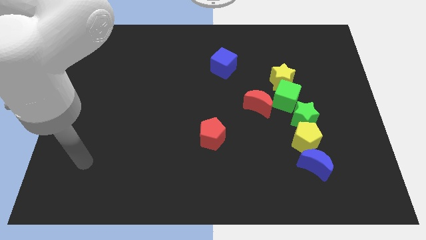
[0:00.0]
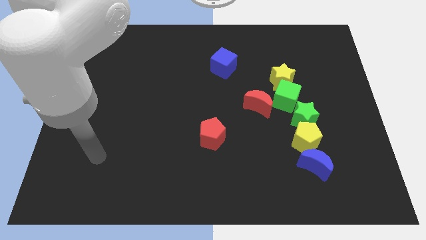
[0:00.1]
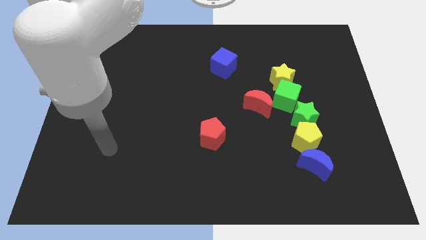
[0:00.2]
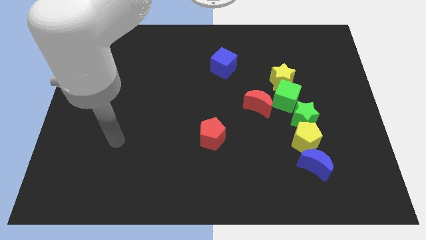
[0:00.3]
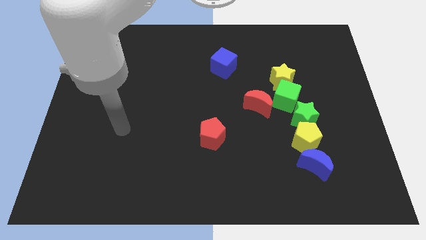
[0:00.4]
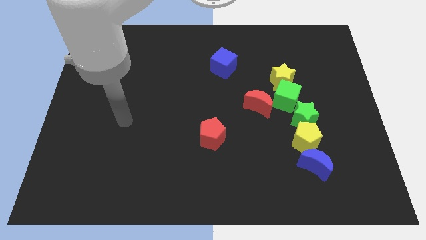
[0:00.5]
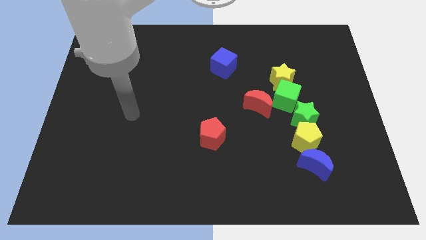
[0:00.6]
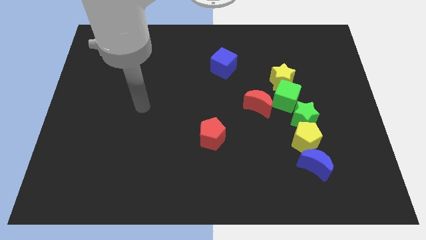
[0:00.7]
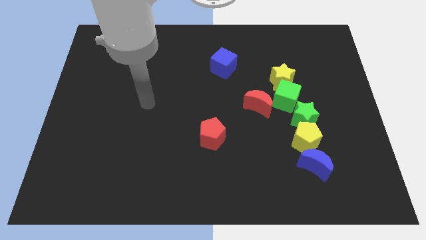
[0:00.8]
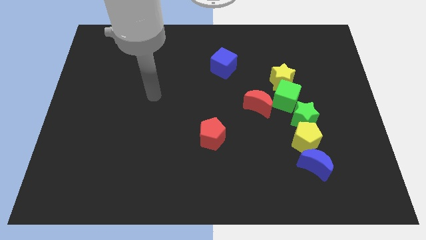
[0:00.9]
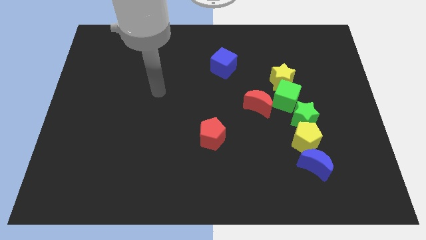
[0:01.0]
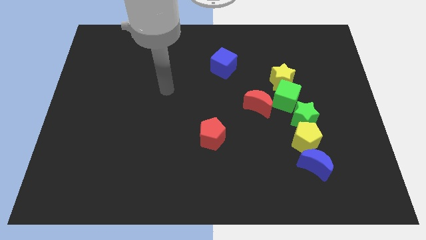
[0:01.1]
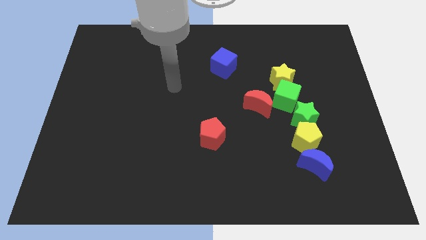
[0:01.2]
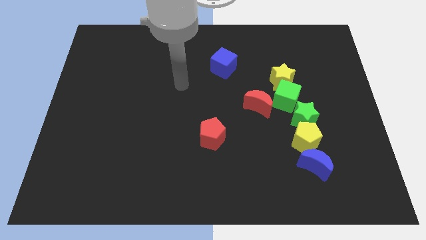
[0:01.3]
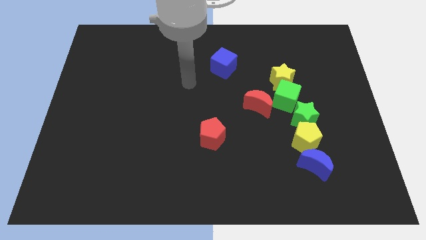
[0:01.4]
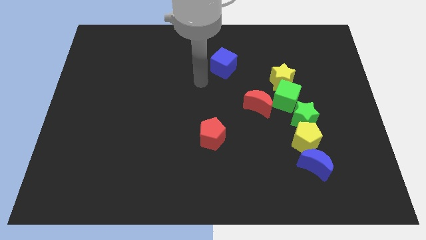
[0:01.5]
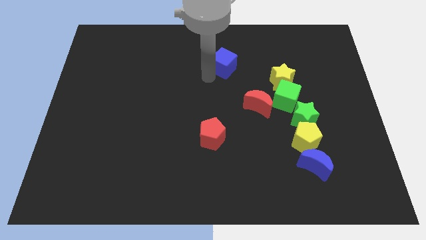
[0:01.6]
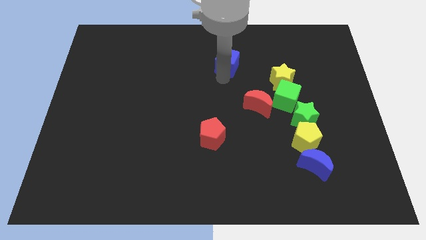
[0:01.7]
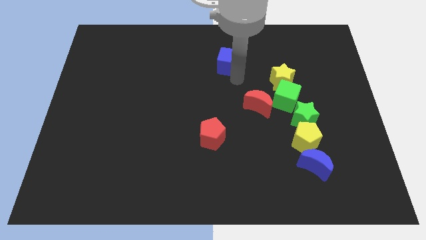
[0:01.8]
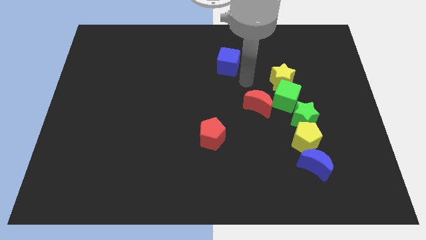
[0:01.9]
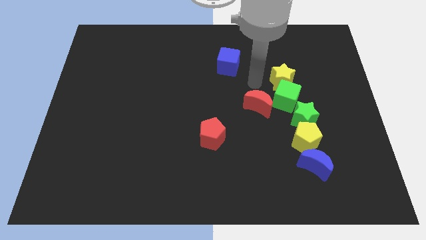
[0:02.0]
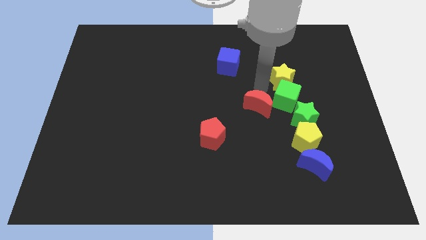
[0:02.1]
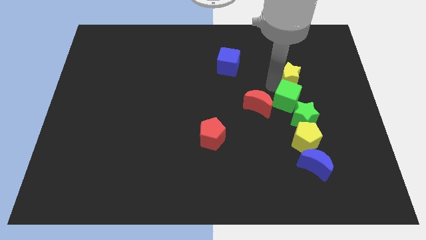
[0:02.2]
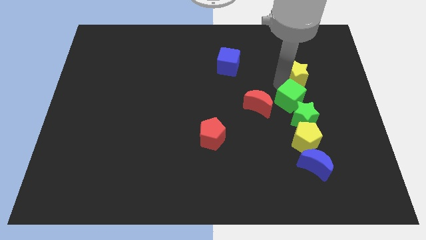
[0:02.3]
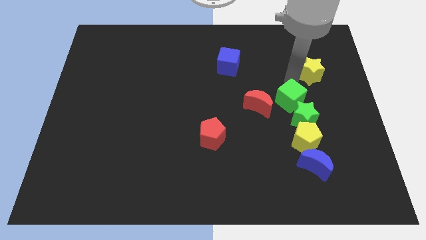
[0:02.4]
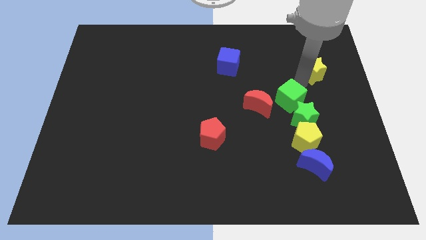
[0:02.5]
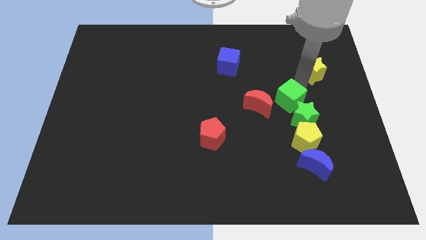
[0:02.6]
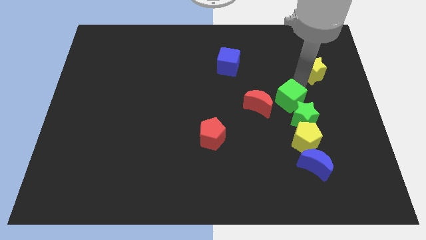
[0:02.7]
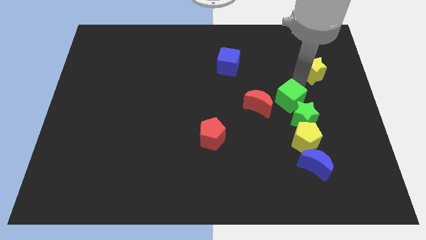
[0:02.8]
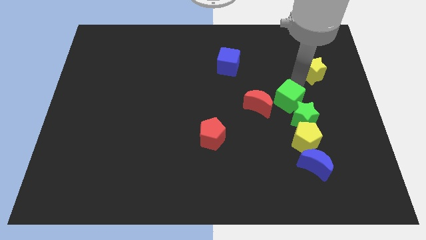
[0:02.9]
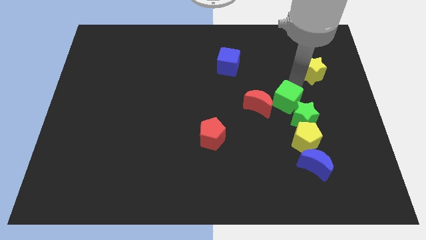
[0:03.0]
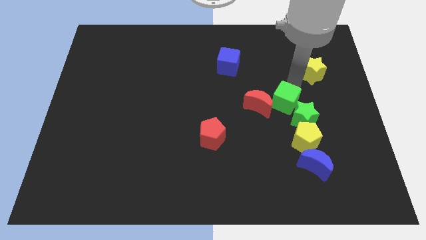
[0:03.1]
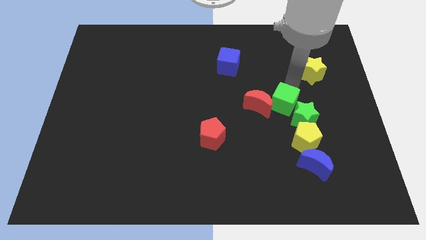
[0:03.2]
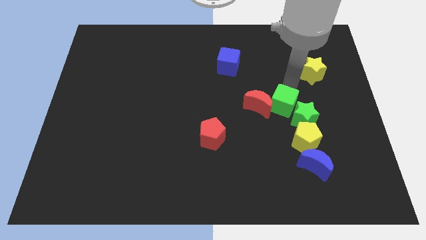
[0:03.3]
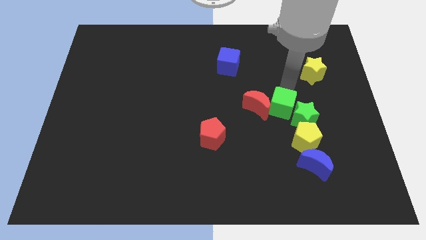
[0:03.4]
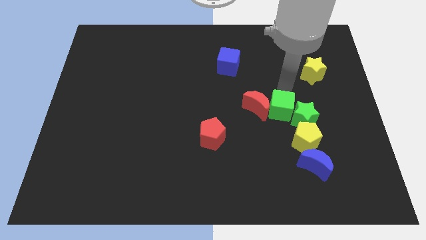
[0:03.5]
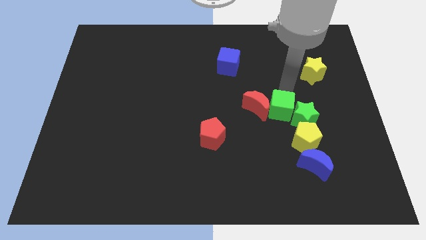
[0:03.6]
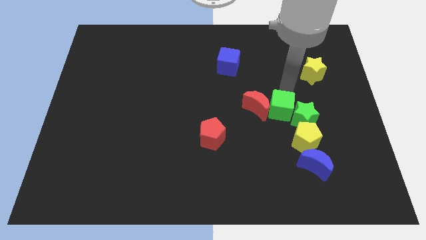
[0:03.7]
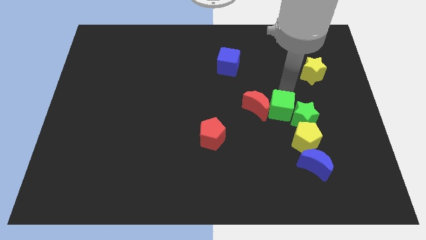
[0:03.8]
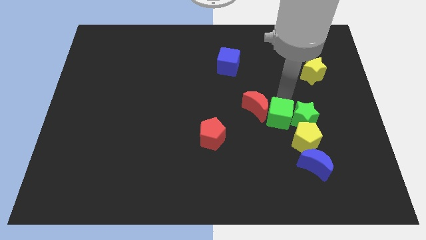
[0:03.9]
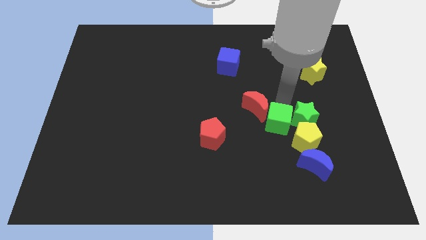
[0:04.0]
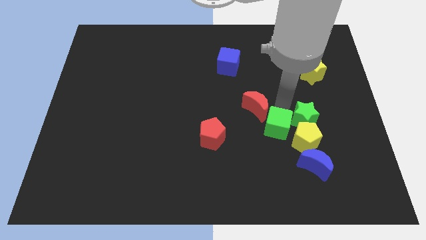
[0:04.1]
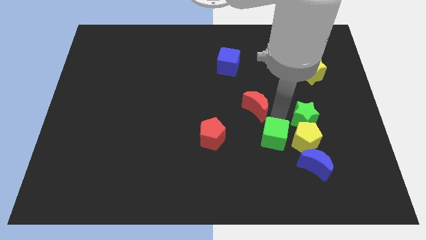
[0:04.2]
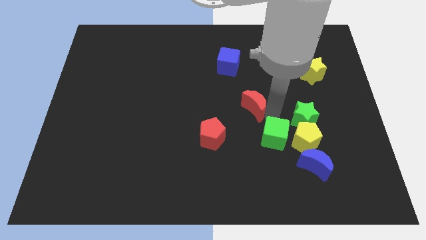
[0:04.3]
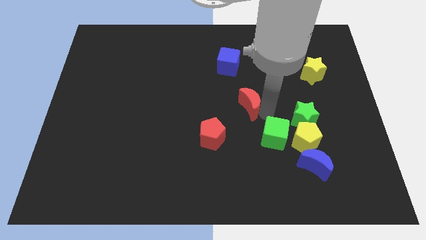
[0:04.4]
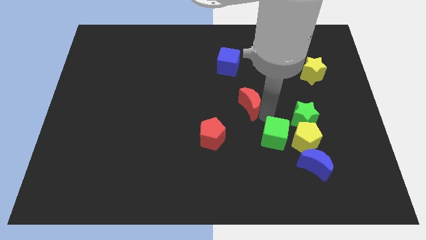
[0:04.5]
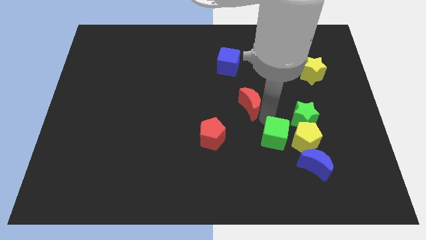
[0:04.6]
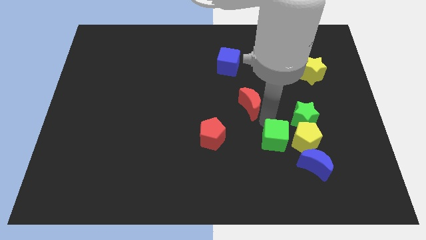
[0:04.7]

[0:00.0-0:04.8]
put the green cube to the bottom left of the yellow pentagon

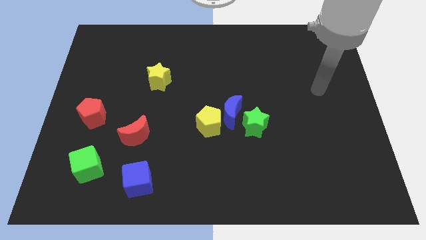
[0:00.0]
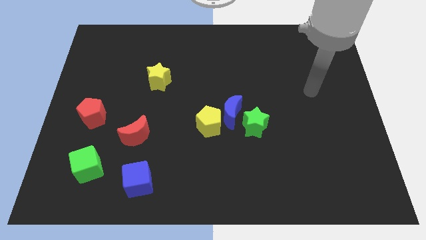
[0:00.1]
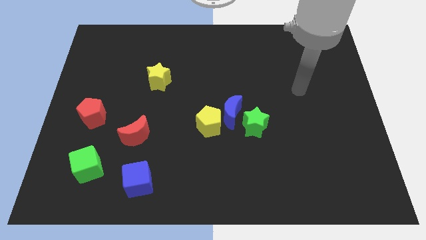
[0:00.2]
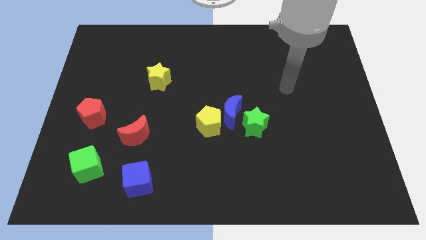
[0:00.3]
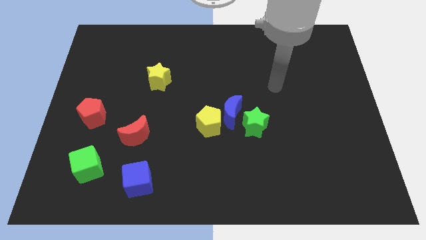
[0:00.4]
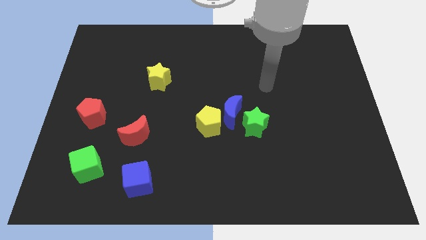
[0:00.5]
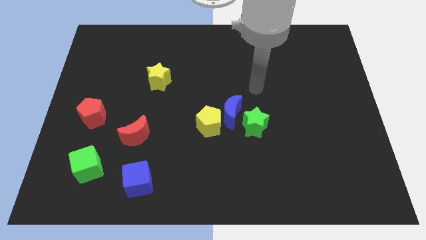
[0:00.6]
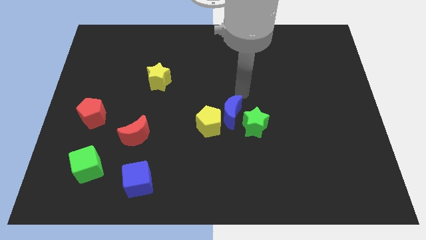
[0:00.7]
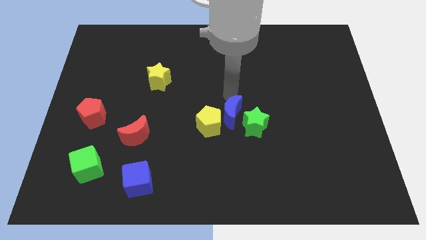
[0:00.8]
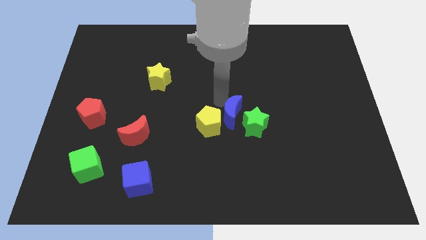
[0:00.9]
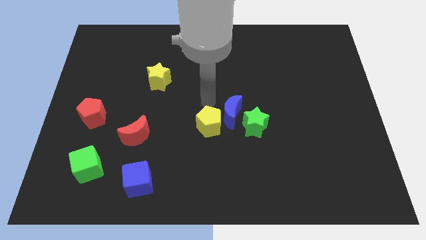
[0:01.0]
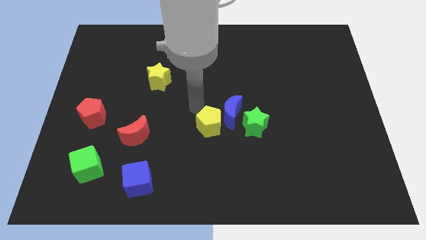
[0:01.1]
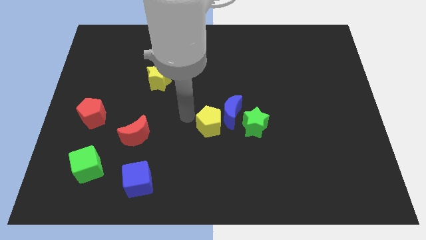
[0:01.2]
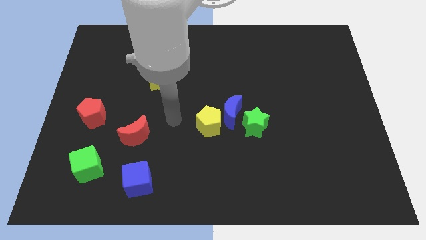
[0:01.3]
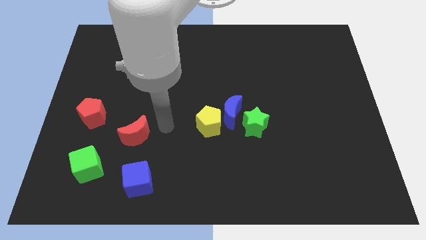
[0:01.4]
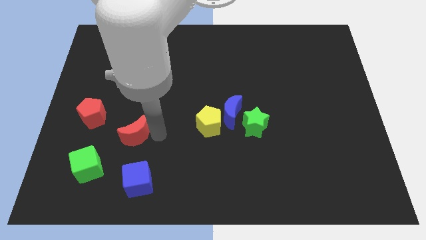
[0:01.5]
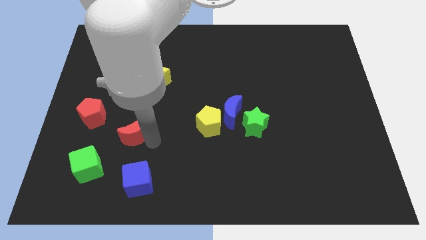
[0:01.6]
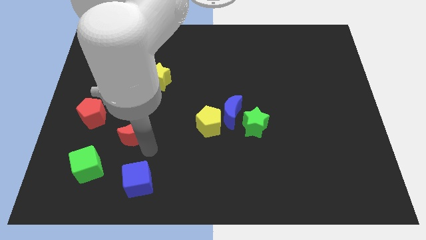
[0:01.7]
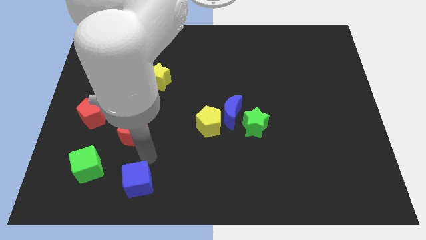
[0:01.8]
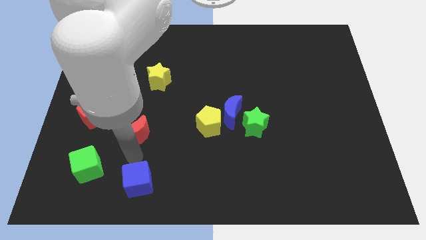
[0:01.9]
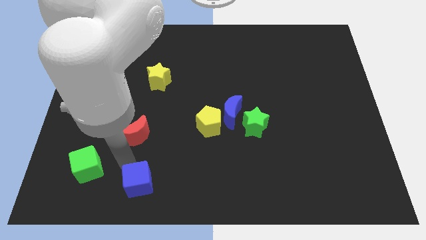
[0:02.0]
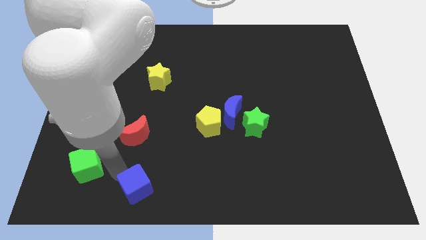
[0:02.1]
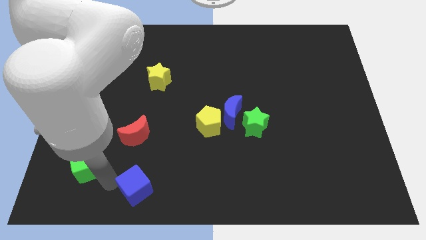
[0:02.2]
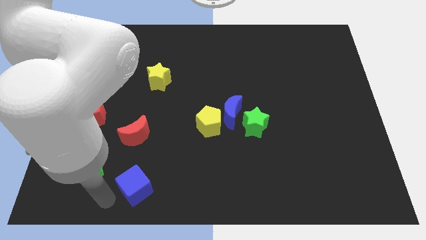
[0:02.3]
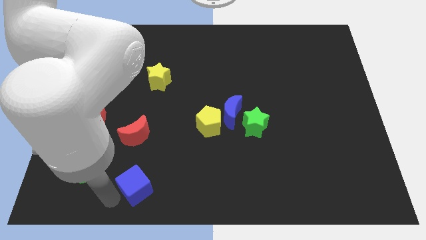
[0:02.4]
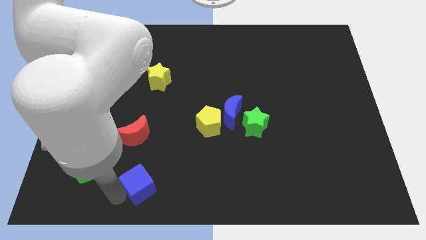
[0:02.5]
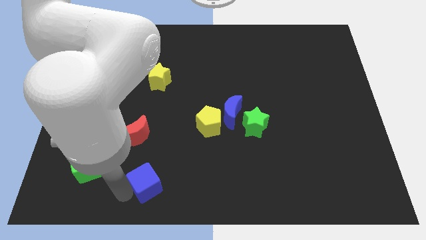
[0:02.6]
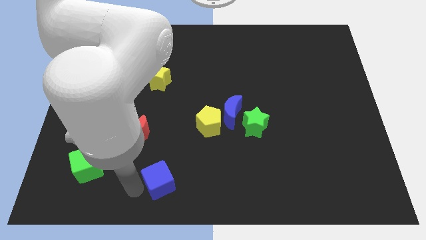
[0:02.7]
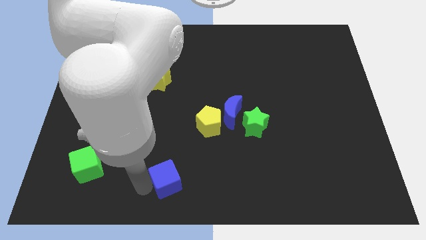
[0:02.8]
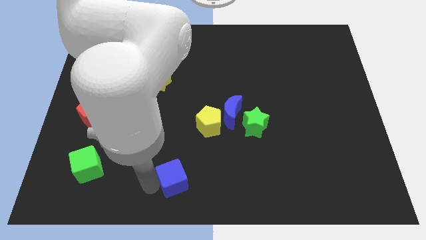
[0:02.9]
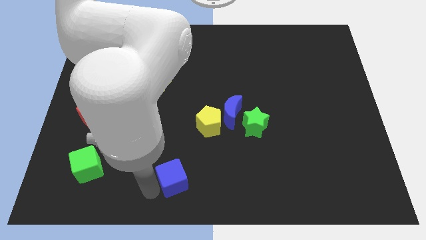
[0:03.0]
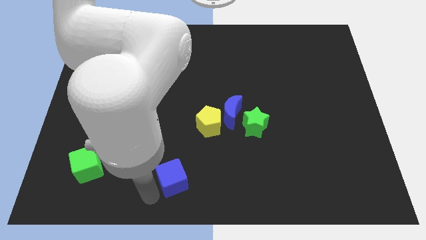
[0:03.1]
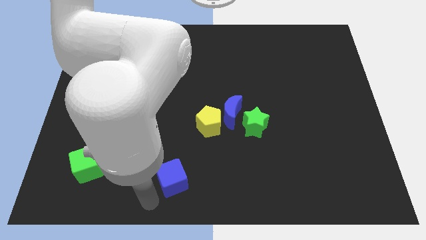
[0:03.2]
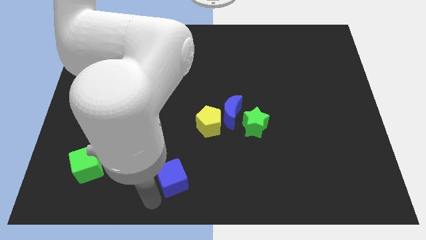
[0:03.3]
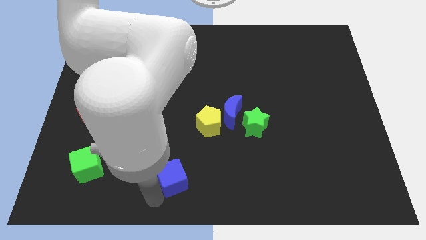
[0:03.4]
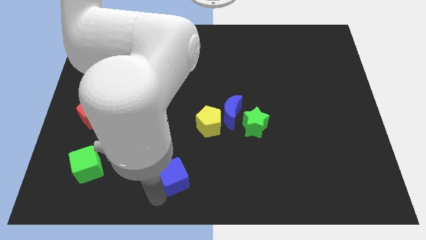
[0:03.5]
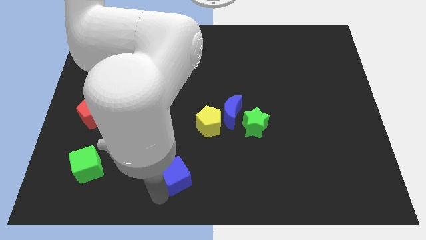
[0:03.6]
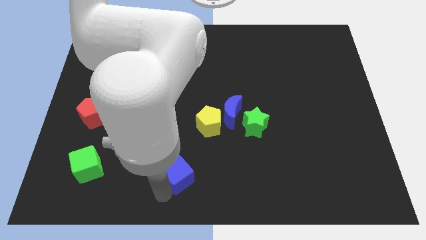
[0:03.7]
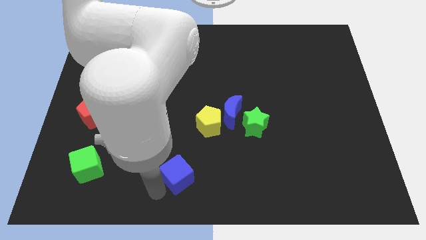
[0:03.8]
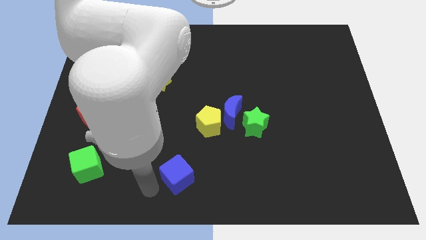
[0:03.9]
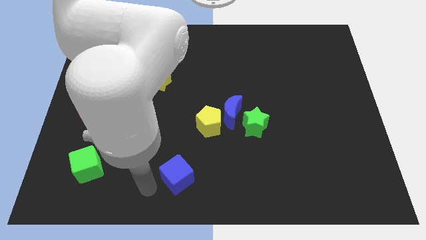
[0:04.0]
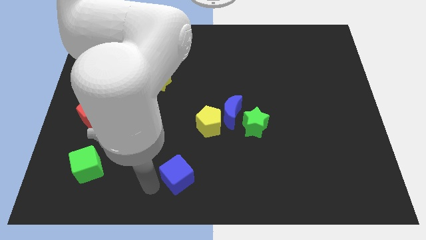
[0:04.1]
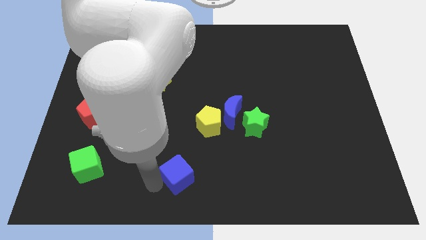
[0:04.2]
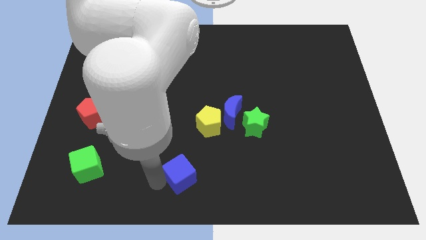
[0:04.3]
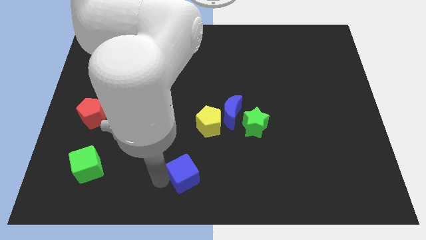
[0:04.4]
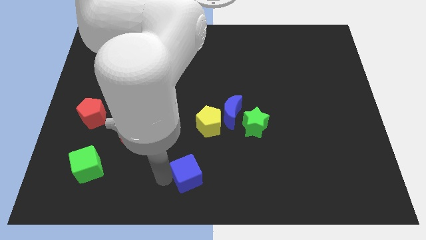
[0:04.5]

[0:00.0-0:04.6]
slide the blue cube to the bottom of the yellow pentagon
